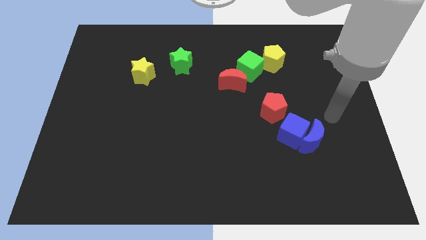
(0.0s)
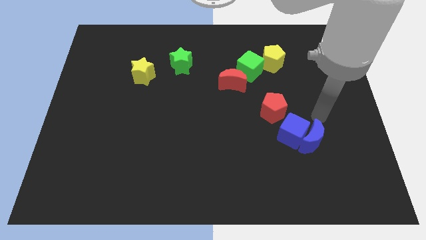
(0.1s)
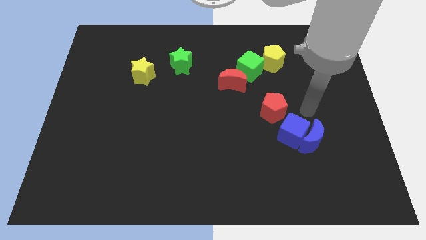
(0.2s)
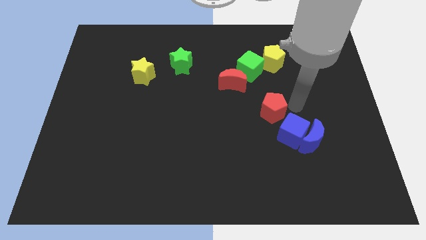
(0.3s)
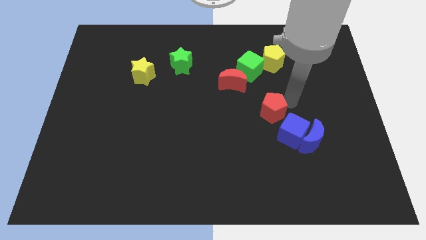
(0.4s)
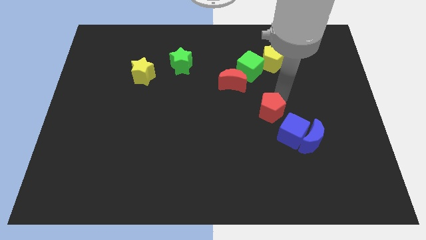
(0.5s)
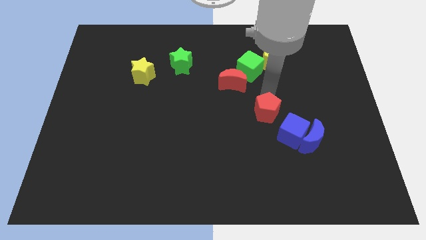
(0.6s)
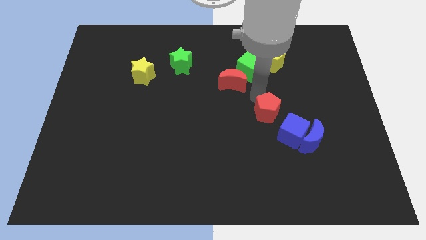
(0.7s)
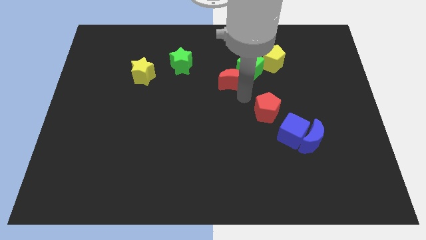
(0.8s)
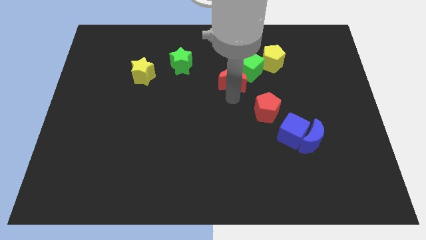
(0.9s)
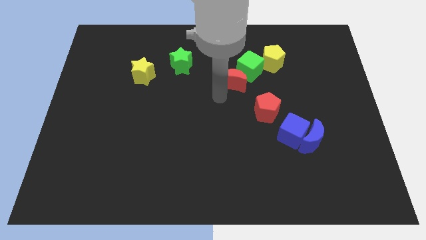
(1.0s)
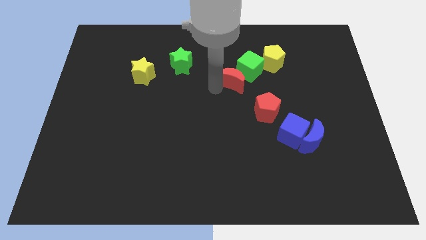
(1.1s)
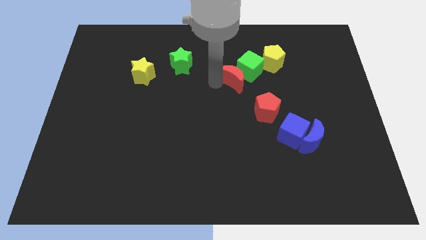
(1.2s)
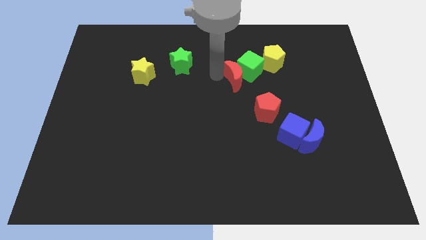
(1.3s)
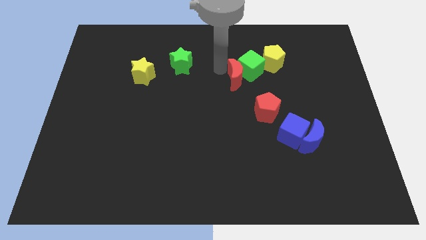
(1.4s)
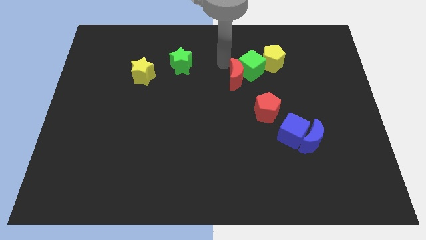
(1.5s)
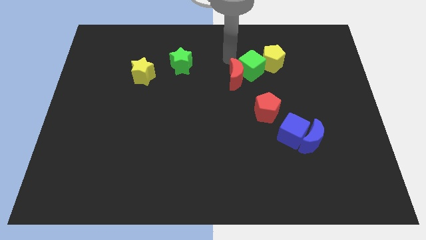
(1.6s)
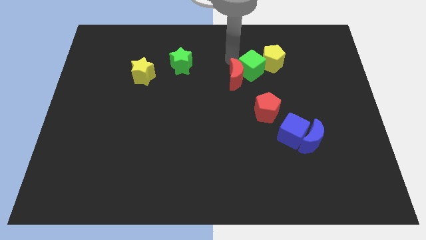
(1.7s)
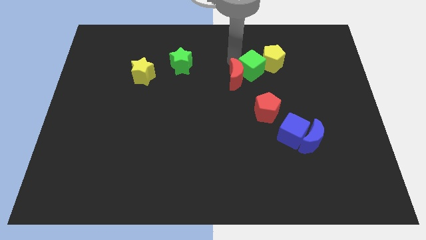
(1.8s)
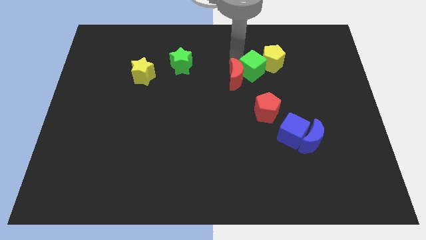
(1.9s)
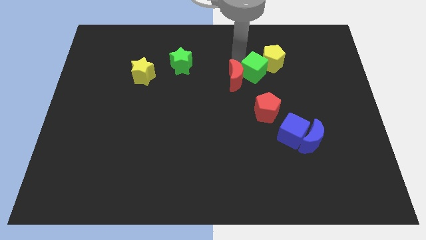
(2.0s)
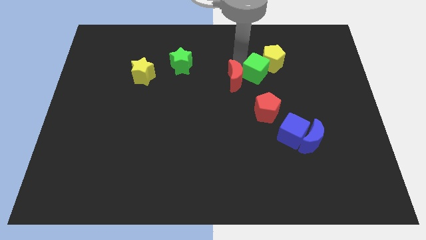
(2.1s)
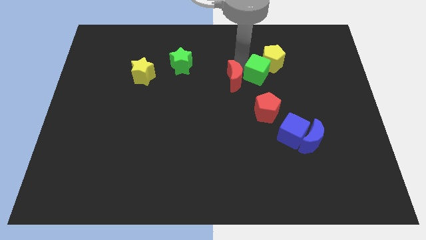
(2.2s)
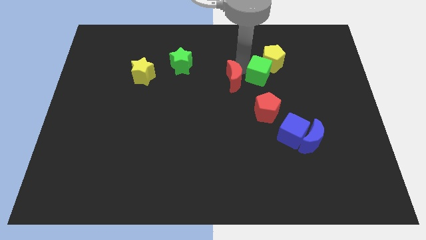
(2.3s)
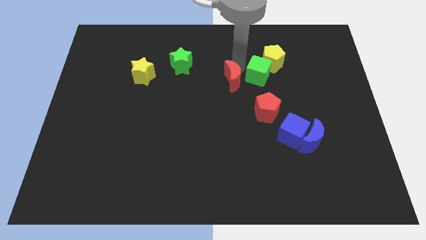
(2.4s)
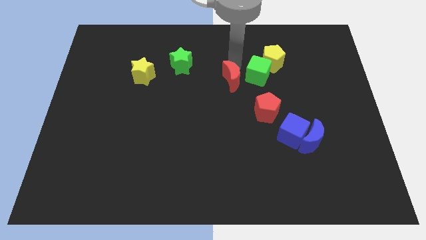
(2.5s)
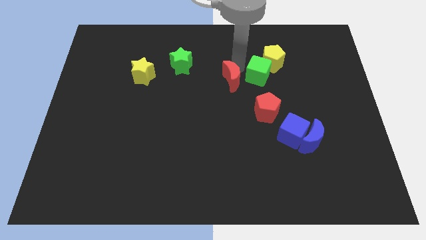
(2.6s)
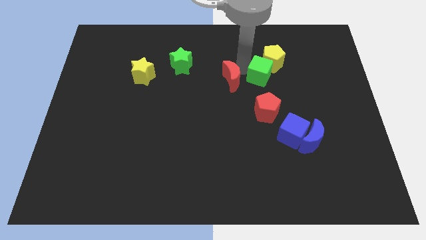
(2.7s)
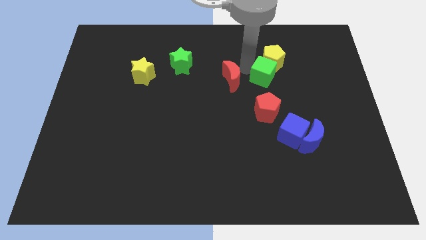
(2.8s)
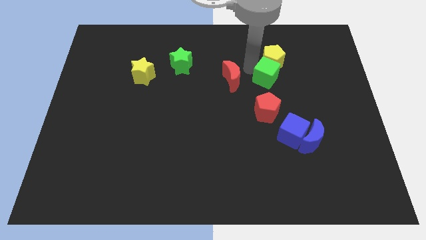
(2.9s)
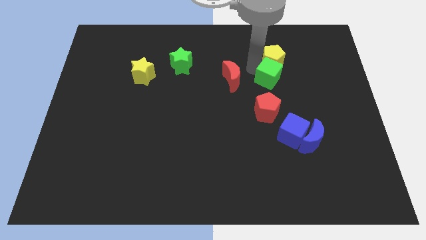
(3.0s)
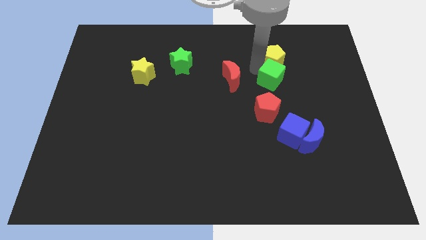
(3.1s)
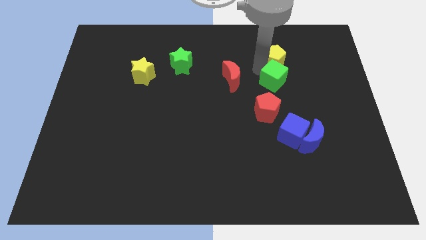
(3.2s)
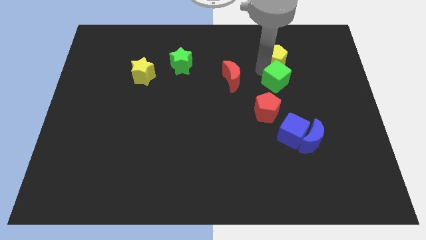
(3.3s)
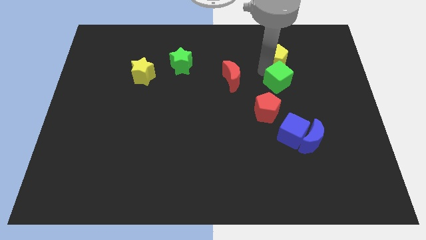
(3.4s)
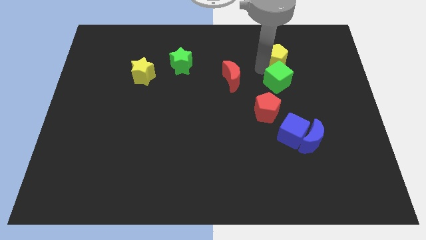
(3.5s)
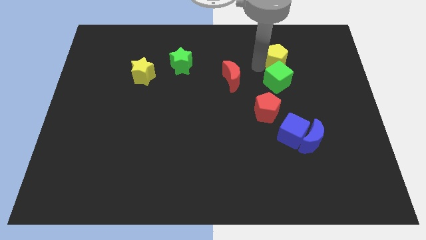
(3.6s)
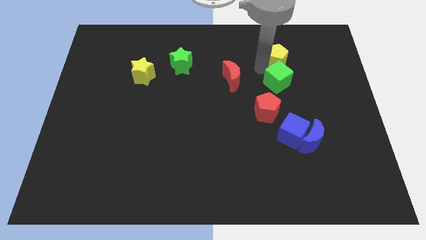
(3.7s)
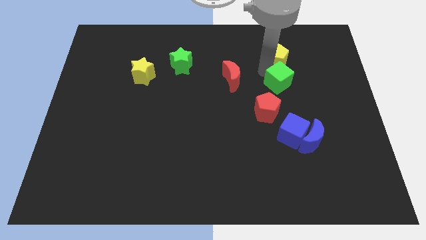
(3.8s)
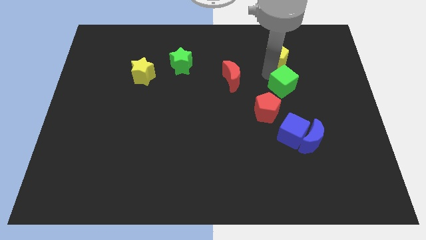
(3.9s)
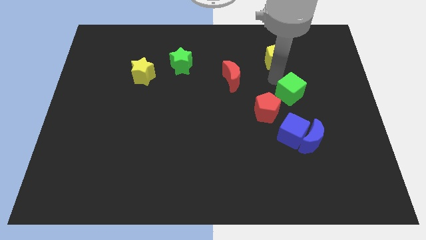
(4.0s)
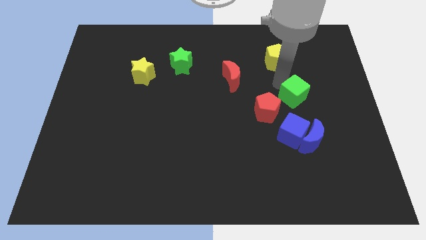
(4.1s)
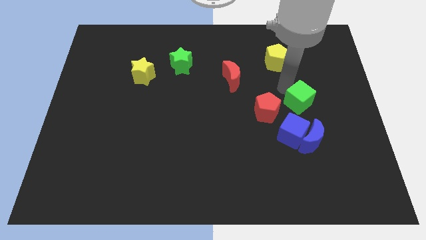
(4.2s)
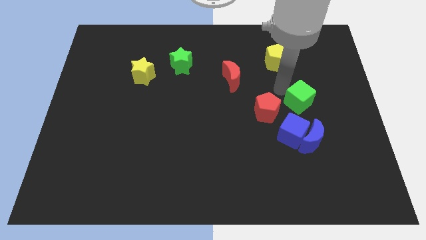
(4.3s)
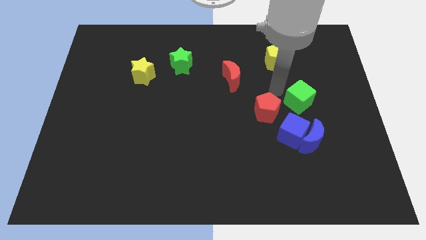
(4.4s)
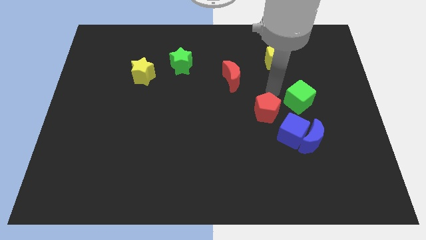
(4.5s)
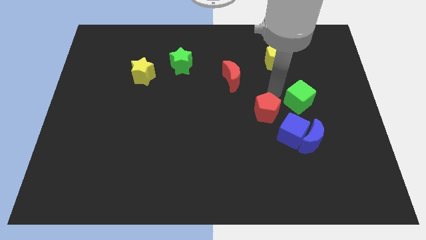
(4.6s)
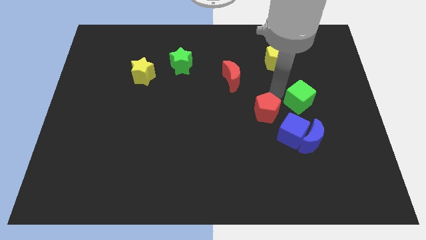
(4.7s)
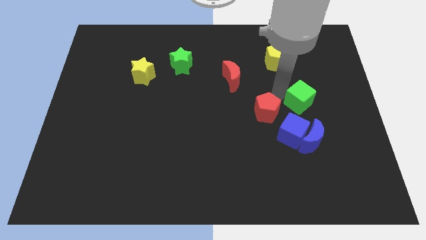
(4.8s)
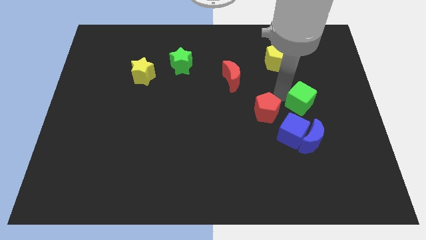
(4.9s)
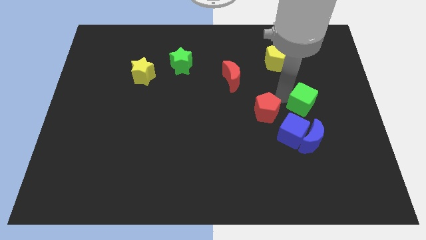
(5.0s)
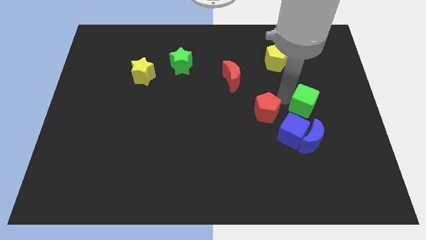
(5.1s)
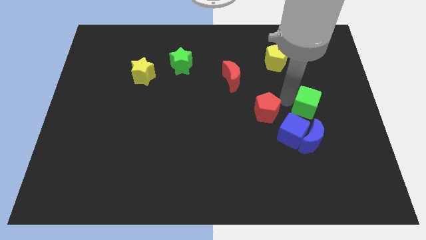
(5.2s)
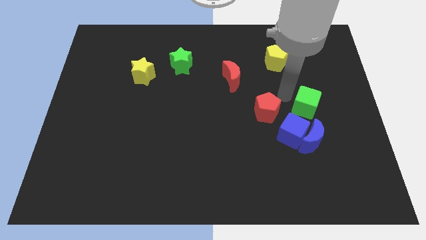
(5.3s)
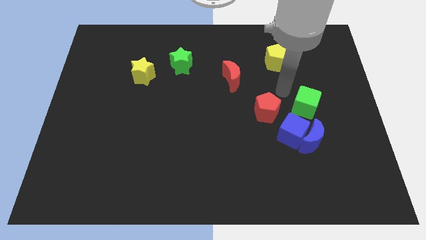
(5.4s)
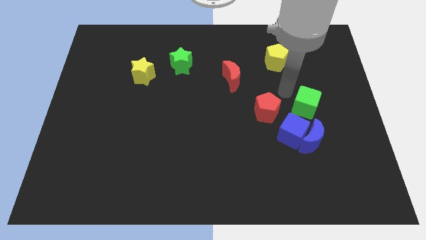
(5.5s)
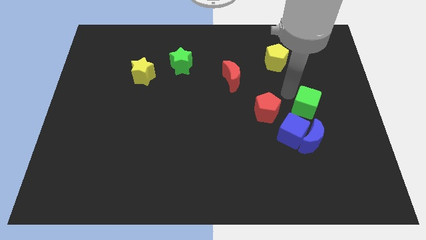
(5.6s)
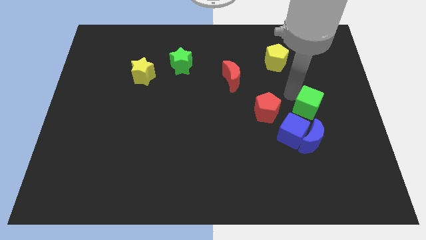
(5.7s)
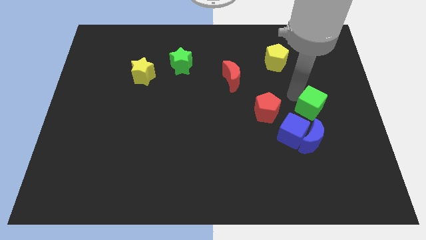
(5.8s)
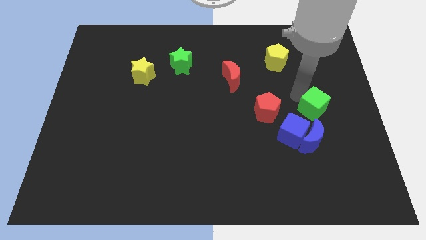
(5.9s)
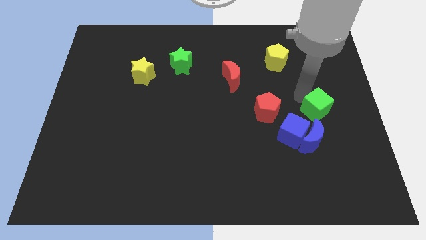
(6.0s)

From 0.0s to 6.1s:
put the green cube to the top right of the blue moon
